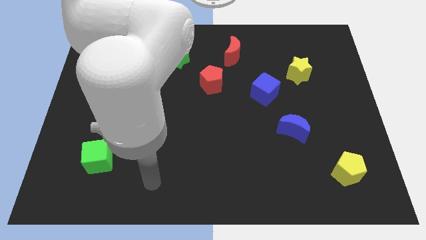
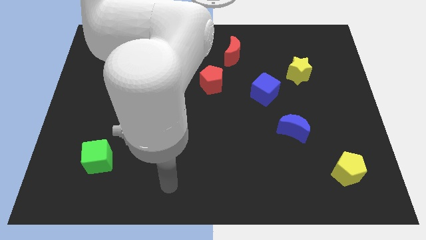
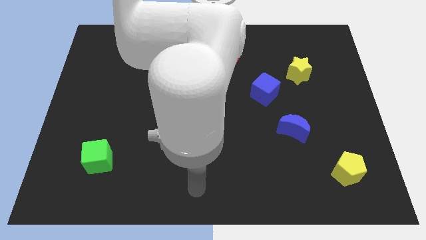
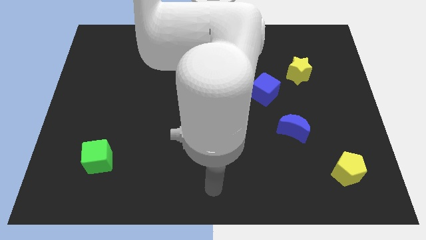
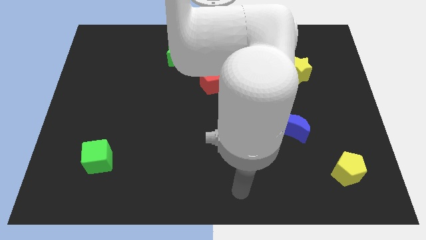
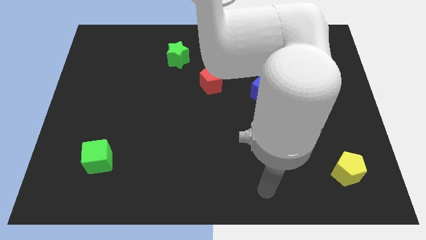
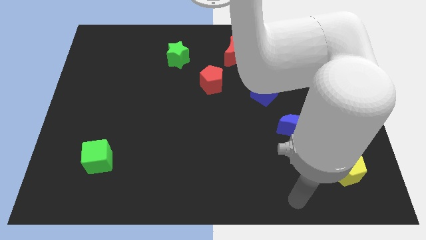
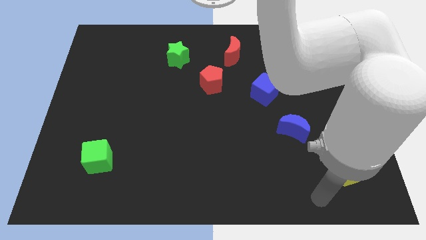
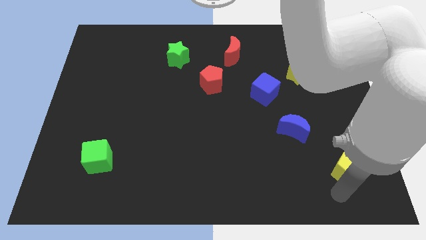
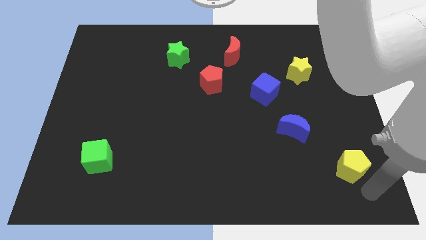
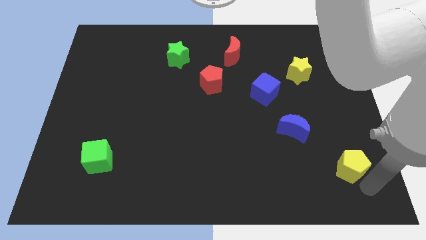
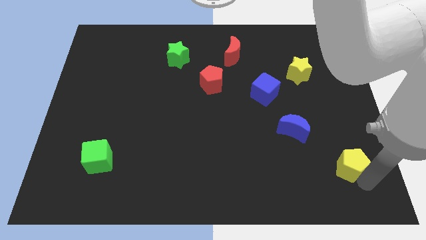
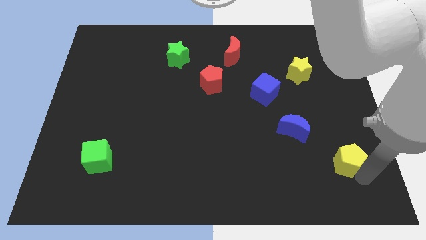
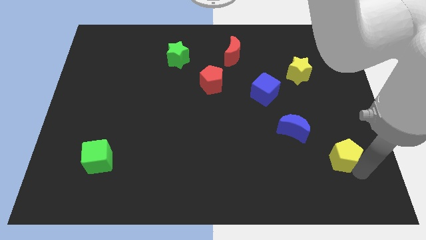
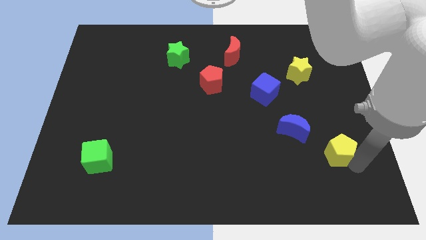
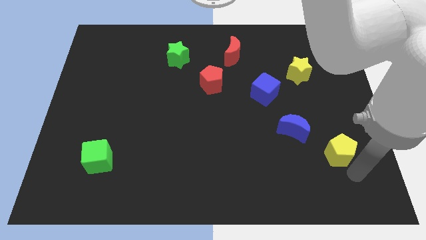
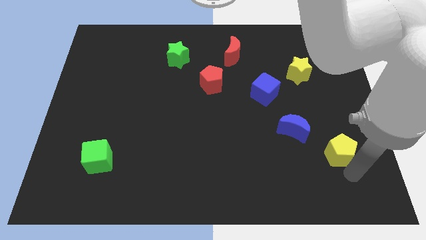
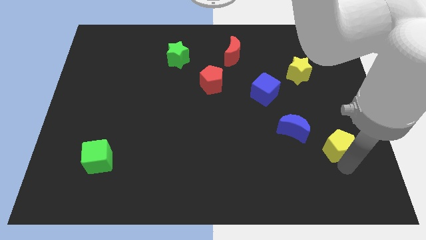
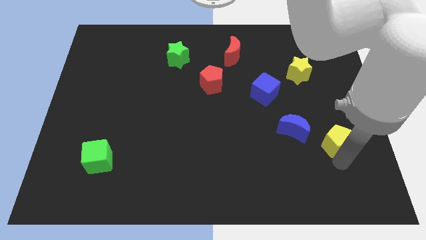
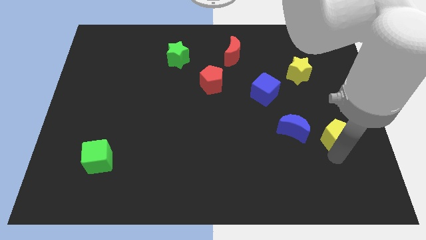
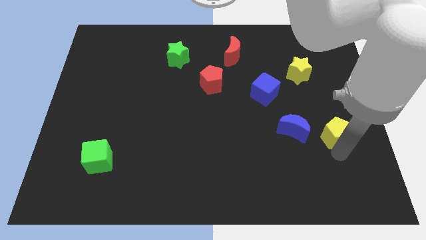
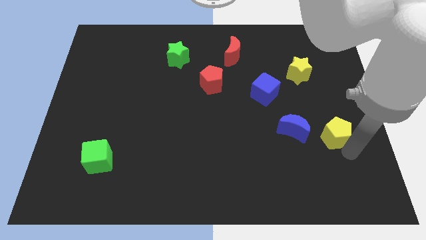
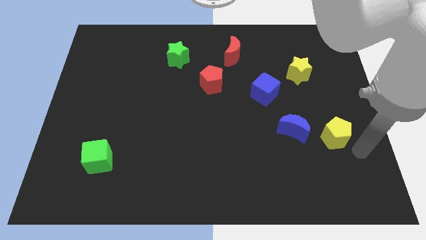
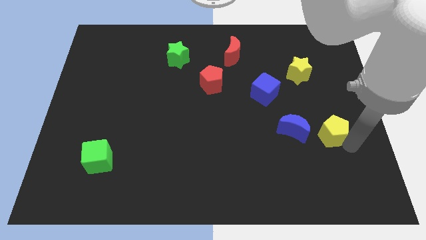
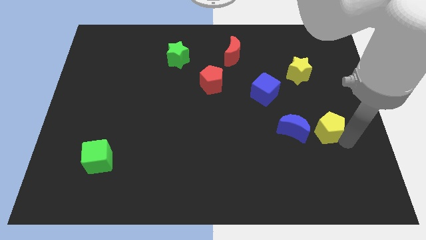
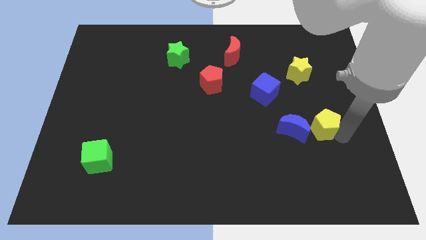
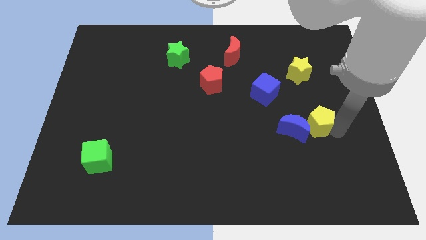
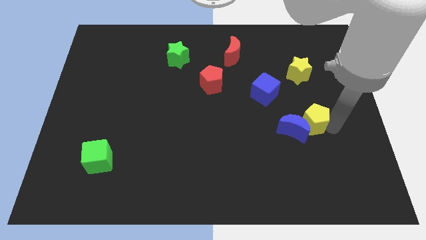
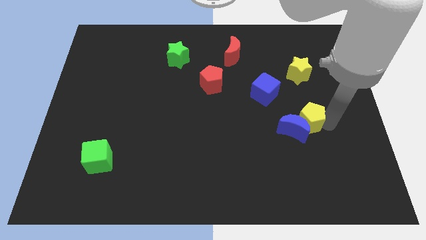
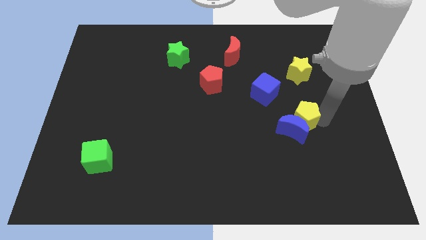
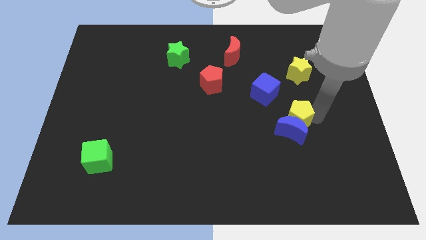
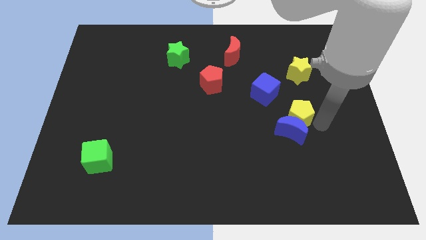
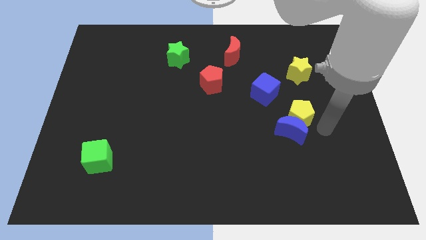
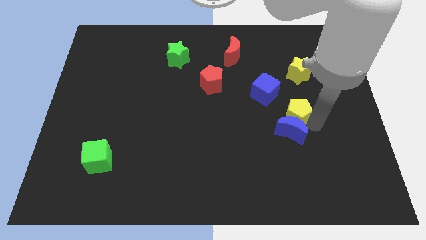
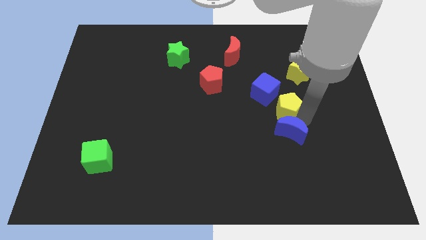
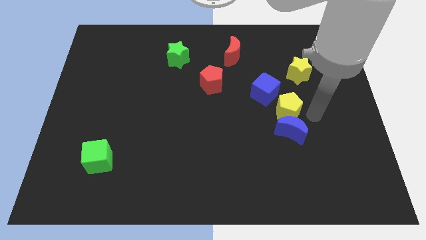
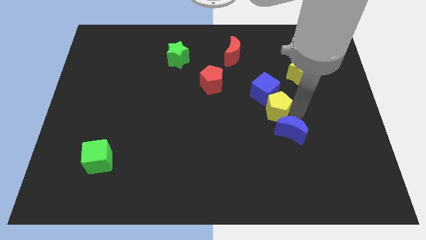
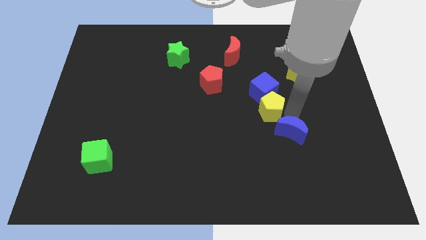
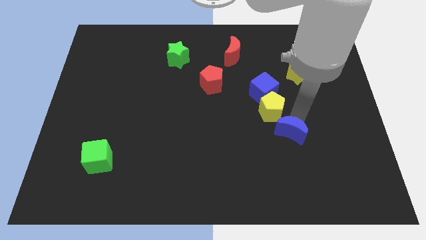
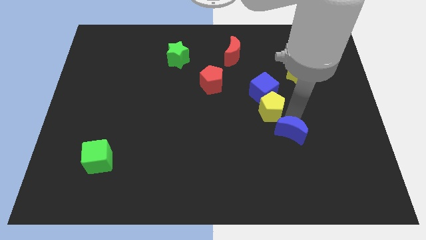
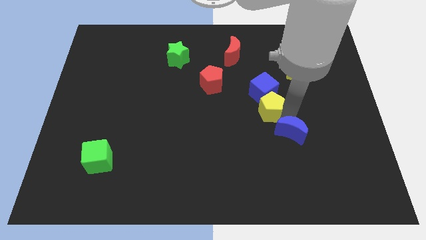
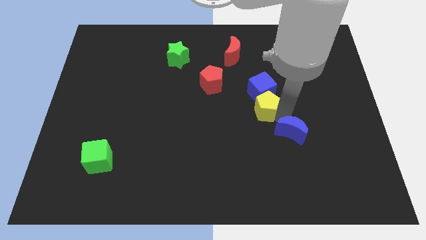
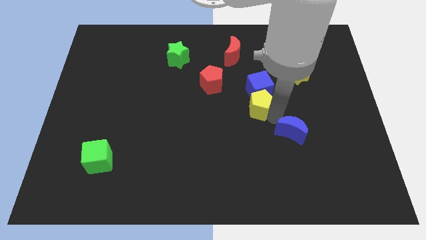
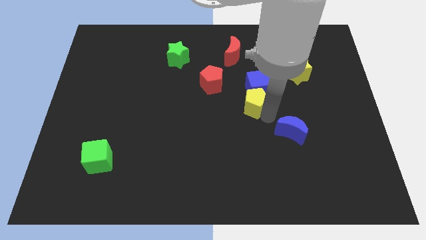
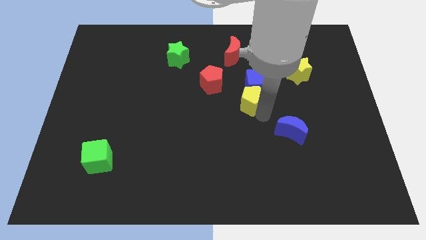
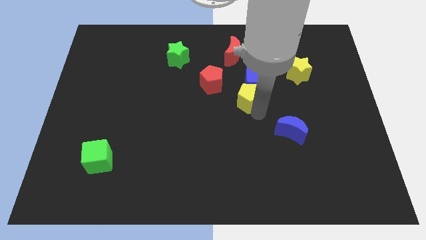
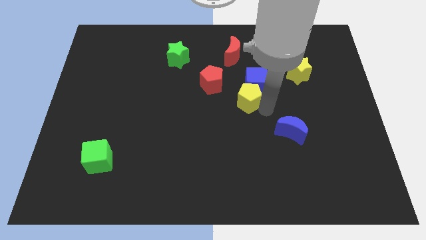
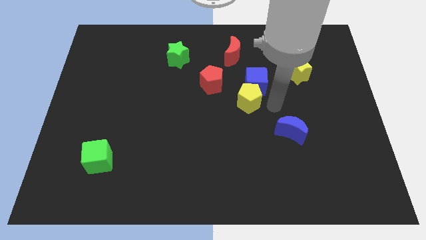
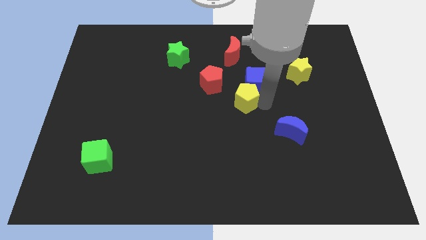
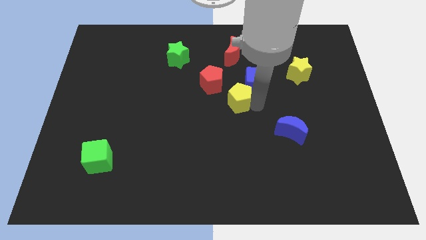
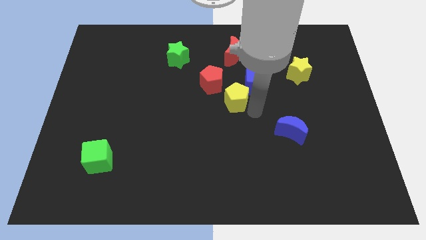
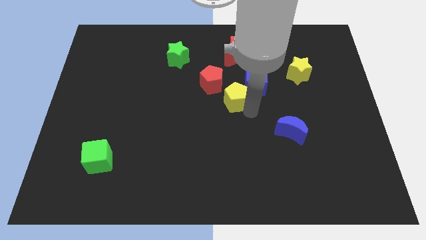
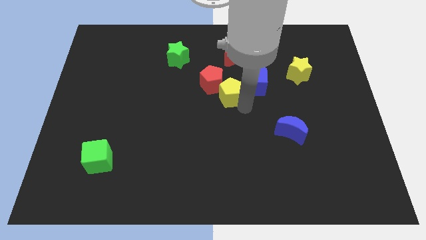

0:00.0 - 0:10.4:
slide the yellow pentagon close to the red pentagon
